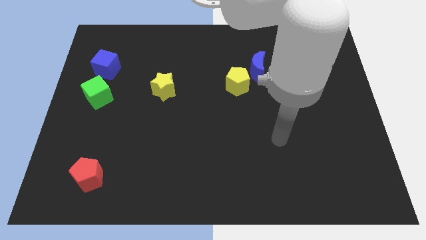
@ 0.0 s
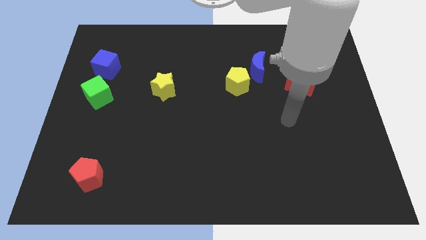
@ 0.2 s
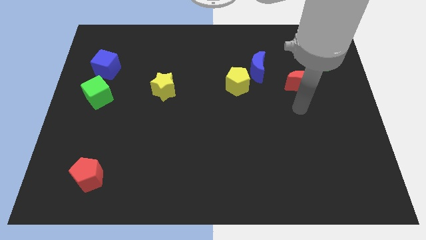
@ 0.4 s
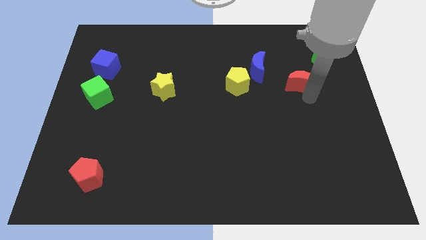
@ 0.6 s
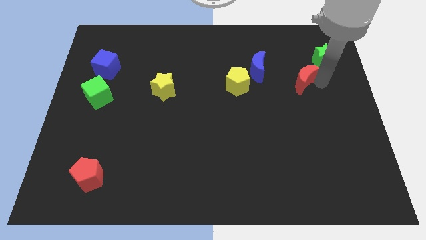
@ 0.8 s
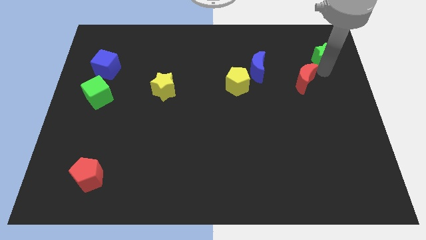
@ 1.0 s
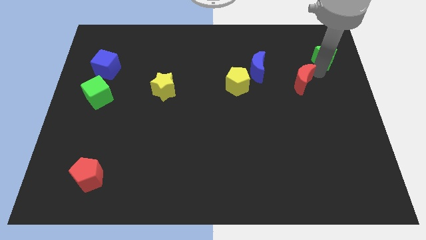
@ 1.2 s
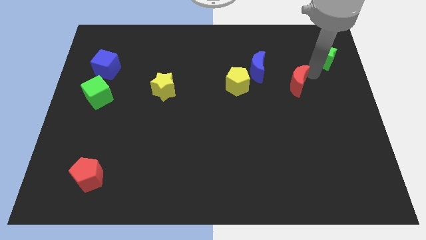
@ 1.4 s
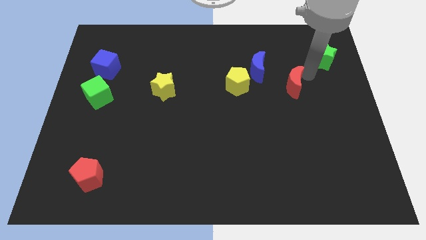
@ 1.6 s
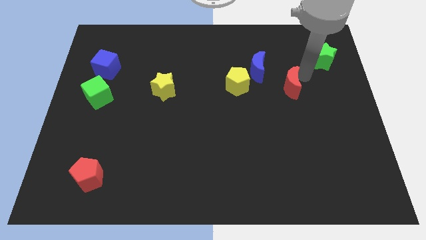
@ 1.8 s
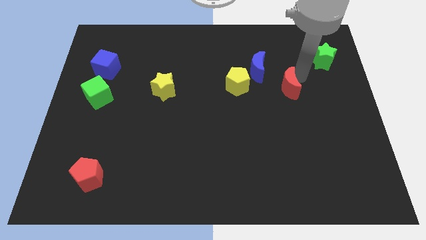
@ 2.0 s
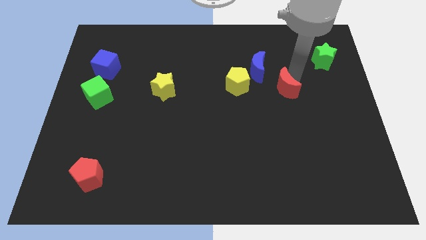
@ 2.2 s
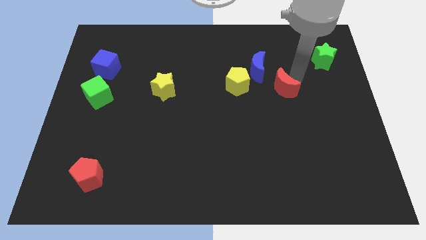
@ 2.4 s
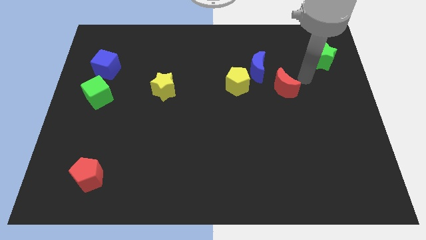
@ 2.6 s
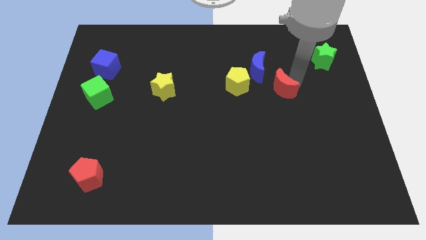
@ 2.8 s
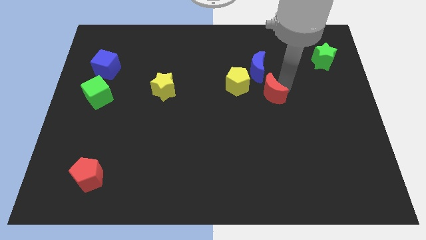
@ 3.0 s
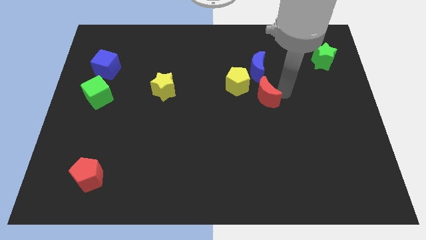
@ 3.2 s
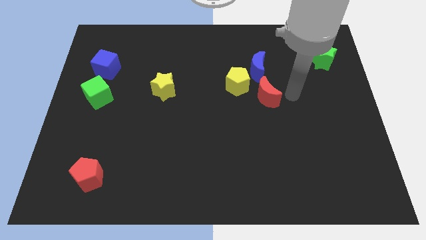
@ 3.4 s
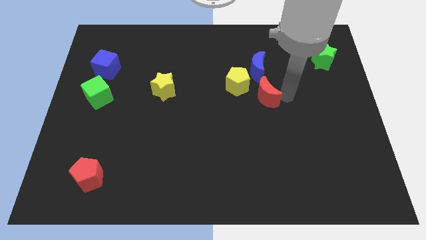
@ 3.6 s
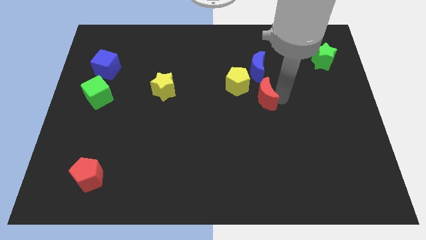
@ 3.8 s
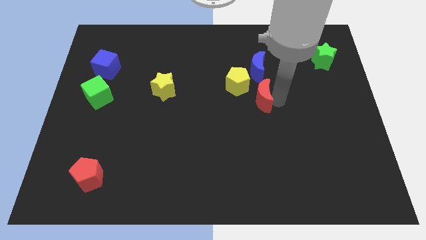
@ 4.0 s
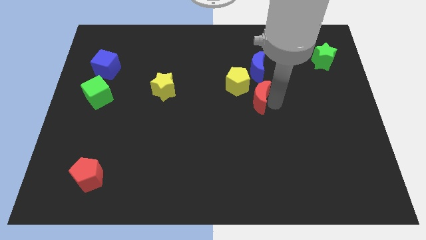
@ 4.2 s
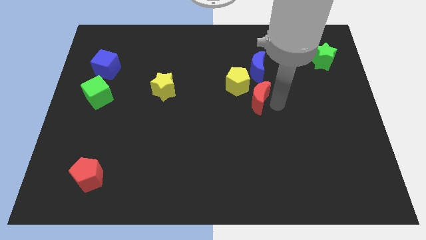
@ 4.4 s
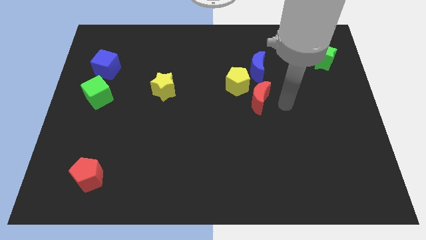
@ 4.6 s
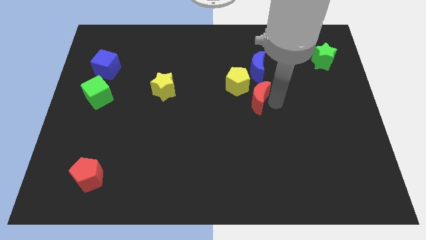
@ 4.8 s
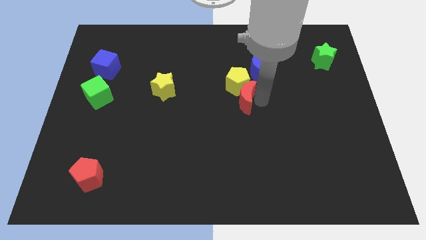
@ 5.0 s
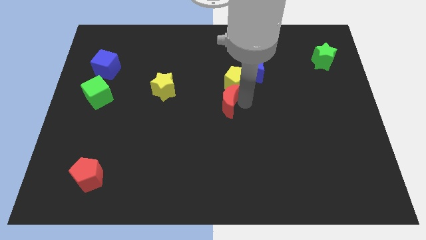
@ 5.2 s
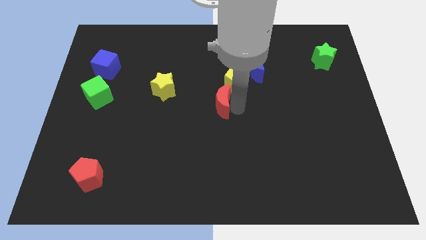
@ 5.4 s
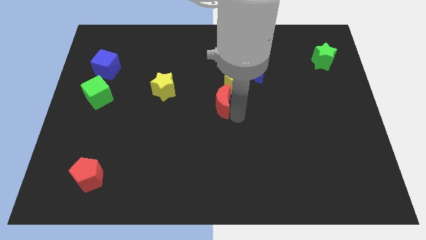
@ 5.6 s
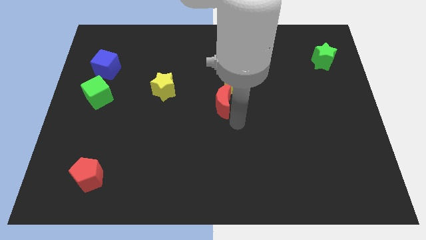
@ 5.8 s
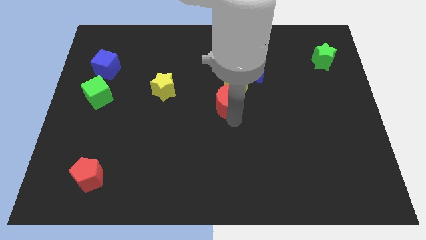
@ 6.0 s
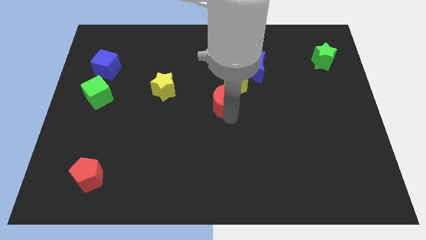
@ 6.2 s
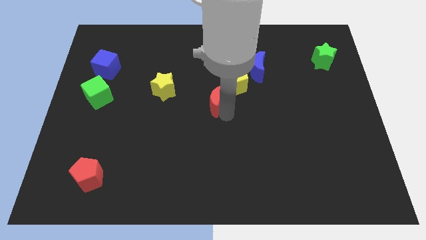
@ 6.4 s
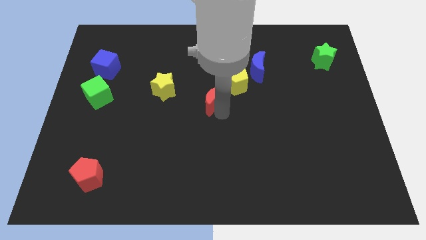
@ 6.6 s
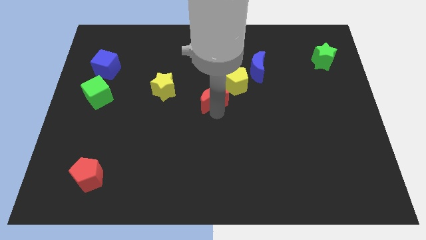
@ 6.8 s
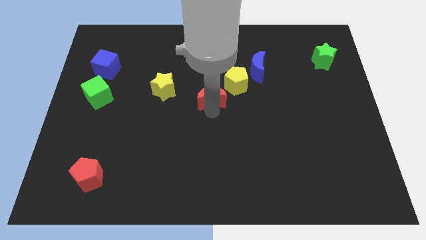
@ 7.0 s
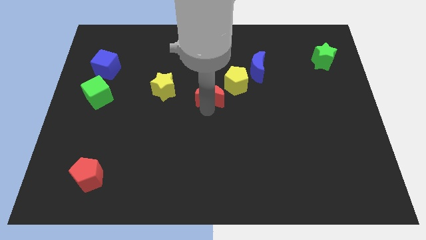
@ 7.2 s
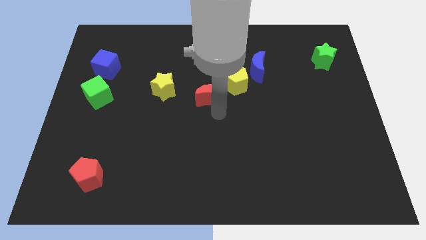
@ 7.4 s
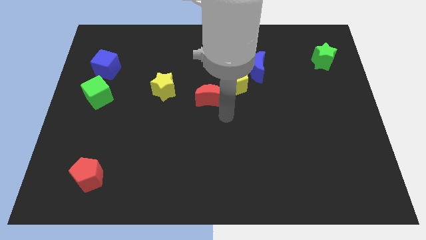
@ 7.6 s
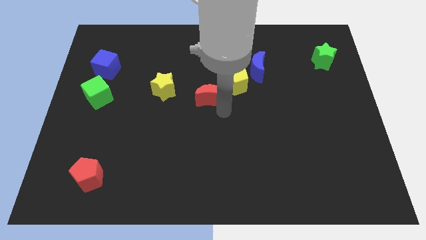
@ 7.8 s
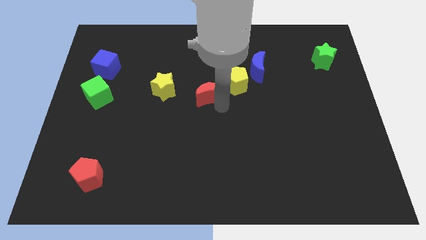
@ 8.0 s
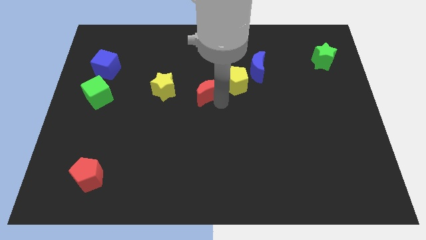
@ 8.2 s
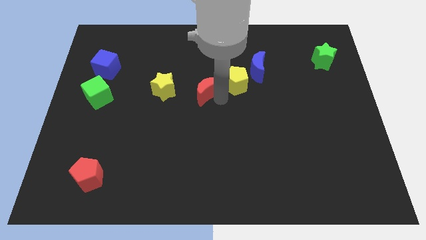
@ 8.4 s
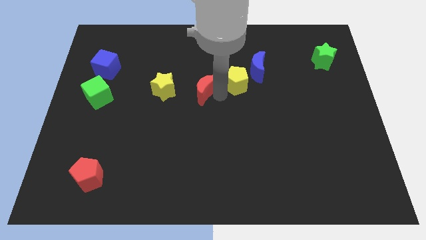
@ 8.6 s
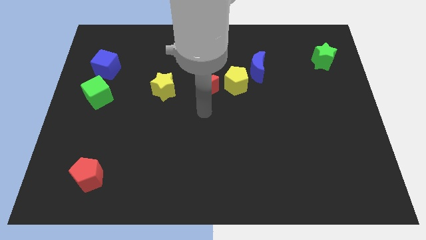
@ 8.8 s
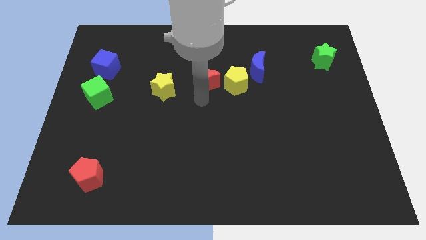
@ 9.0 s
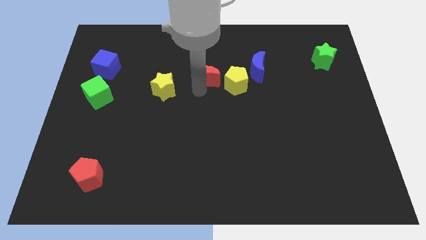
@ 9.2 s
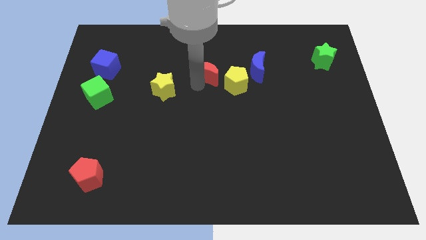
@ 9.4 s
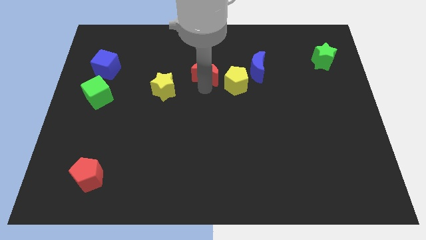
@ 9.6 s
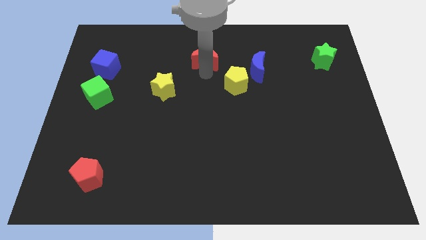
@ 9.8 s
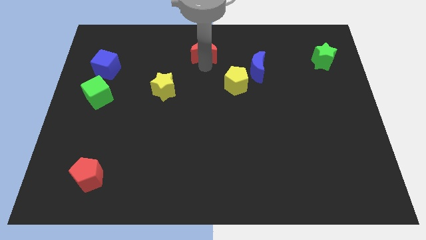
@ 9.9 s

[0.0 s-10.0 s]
put the red moon to the towards your base

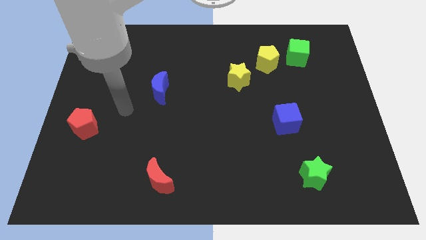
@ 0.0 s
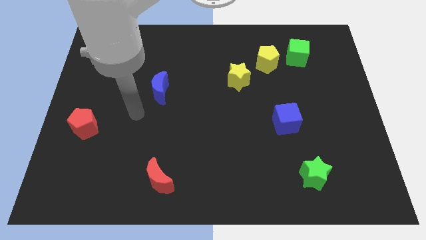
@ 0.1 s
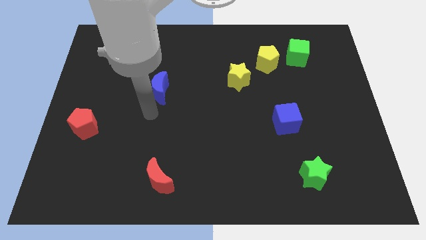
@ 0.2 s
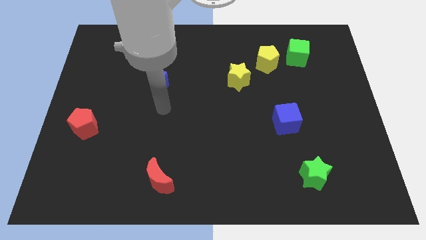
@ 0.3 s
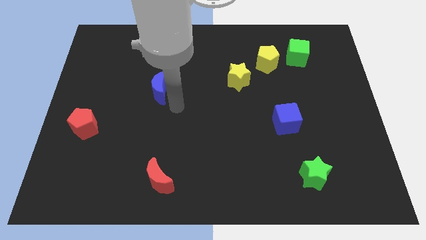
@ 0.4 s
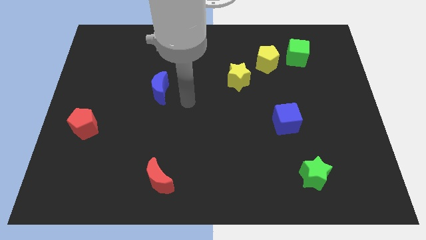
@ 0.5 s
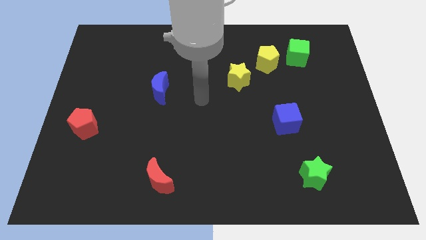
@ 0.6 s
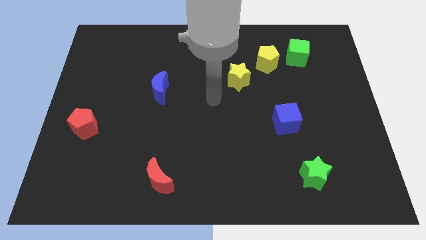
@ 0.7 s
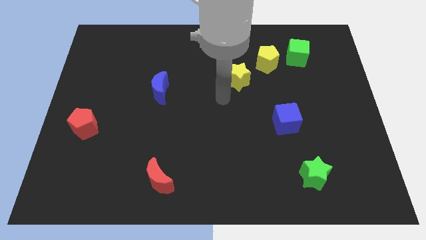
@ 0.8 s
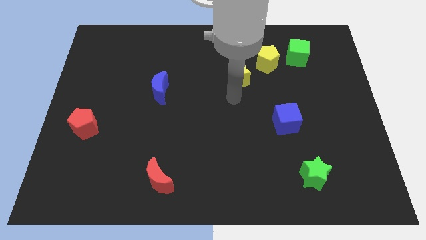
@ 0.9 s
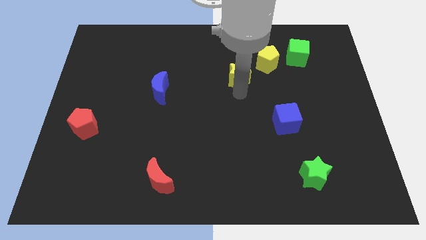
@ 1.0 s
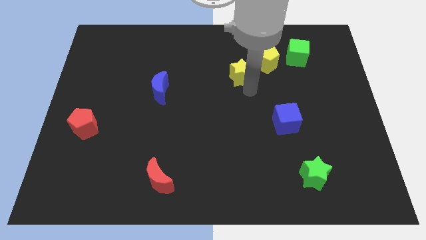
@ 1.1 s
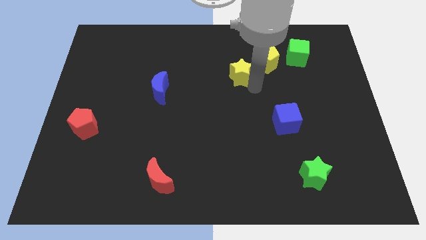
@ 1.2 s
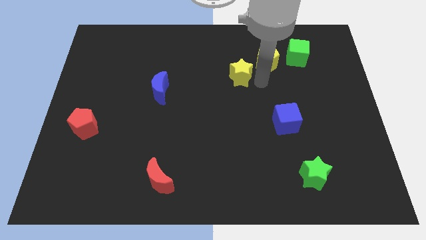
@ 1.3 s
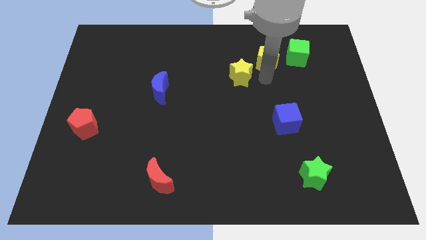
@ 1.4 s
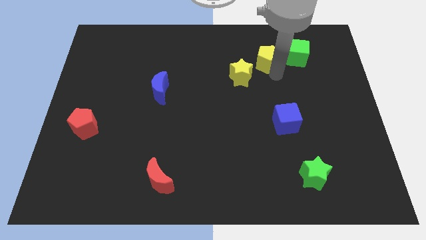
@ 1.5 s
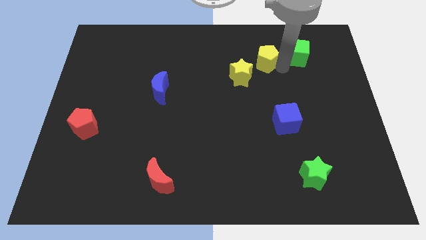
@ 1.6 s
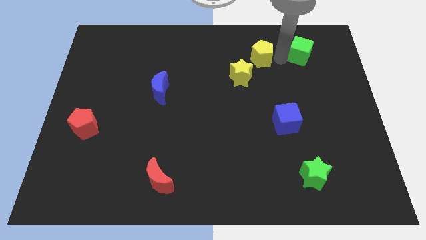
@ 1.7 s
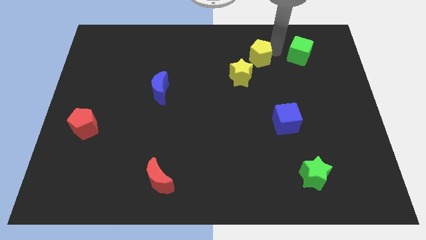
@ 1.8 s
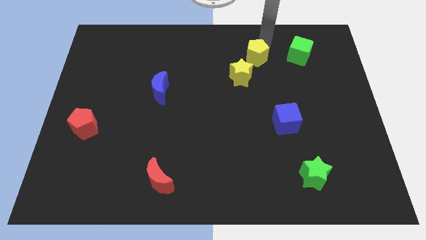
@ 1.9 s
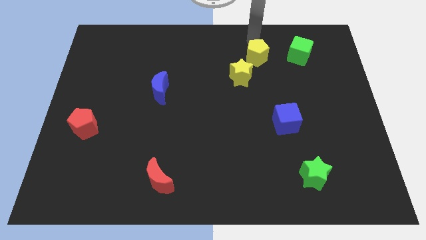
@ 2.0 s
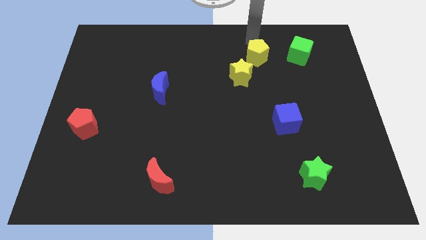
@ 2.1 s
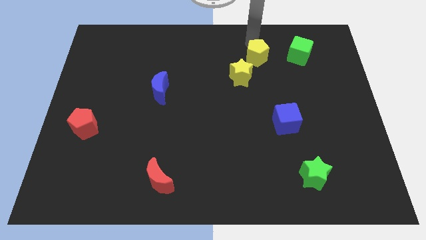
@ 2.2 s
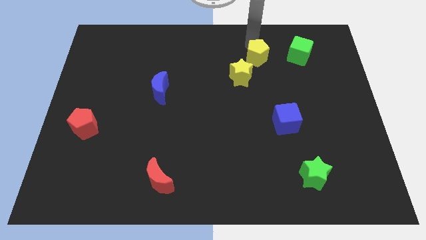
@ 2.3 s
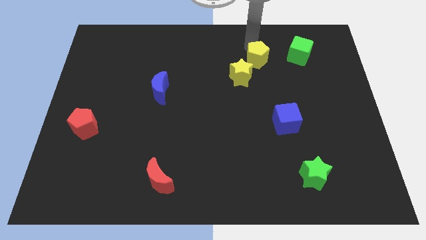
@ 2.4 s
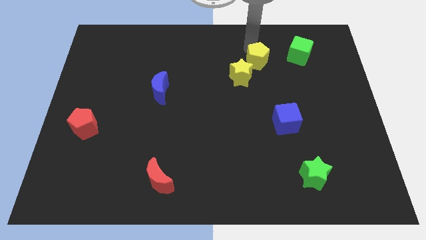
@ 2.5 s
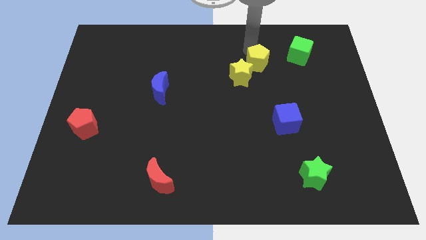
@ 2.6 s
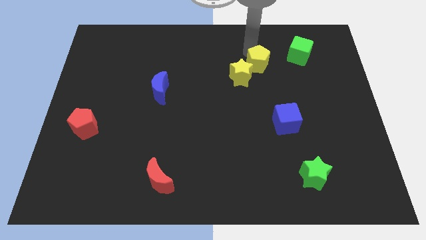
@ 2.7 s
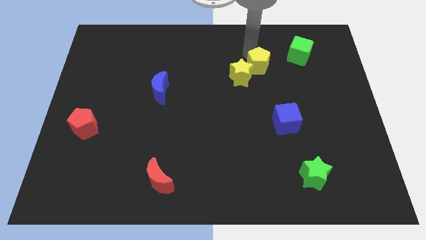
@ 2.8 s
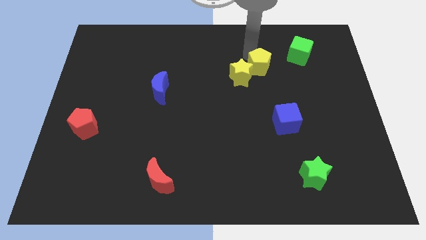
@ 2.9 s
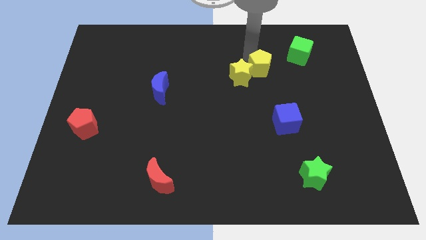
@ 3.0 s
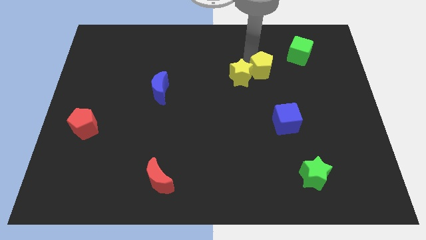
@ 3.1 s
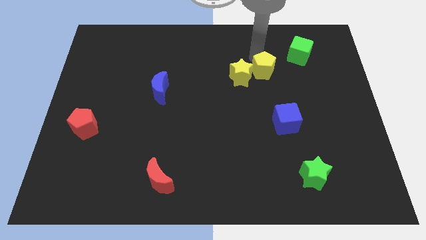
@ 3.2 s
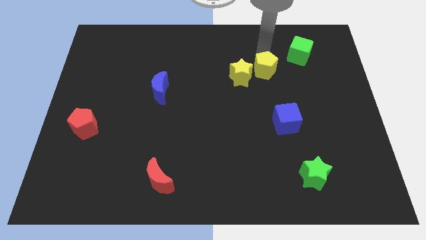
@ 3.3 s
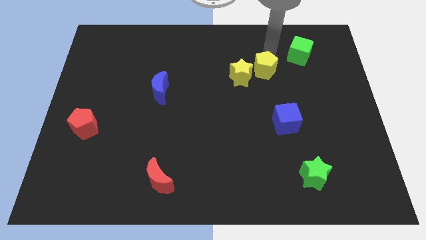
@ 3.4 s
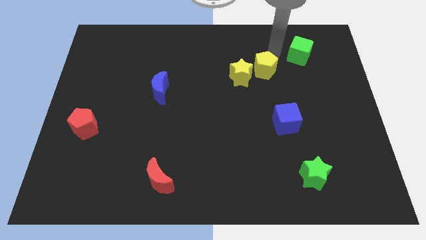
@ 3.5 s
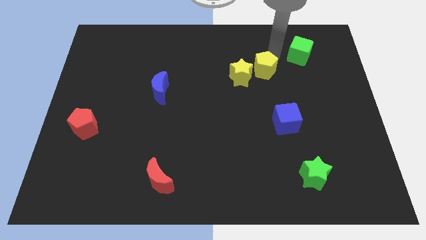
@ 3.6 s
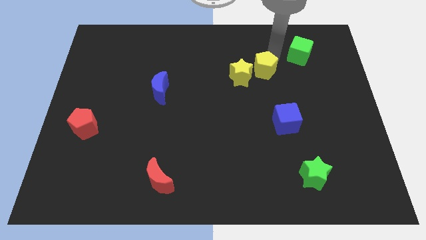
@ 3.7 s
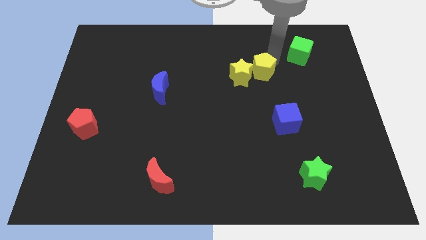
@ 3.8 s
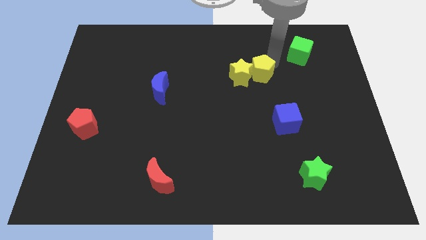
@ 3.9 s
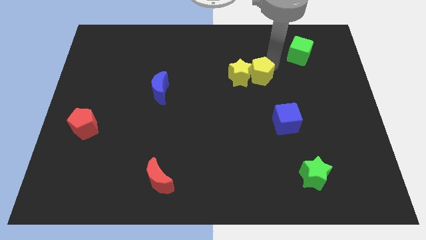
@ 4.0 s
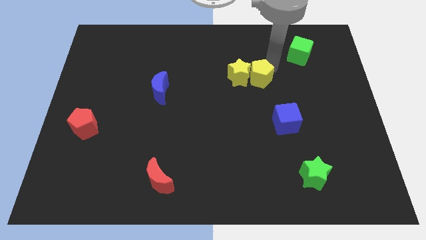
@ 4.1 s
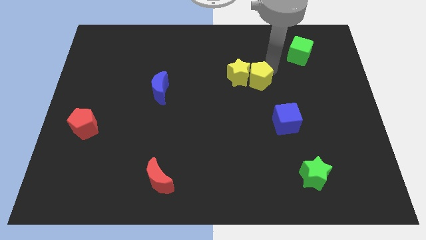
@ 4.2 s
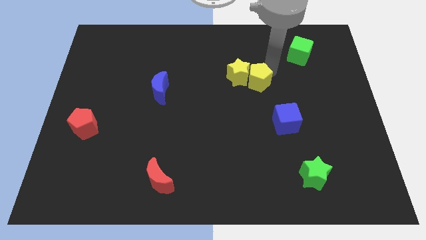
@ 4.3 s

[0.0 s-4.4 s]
move the yellow pentagon to the middle
